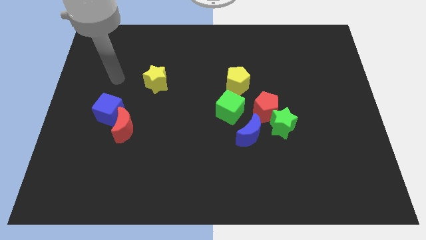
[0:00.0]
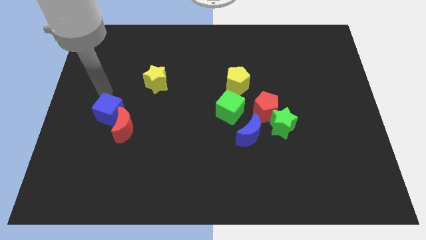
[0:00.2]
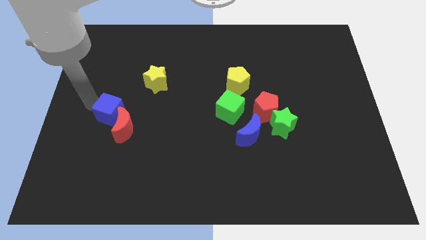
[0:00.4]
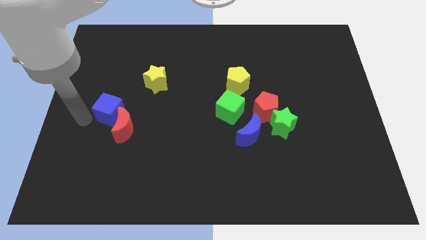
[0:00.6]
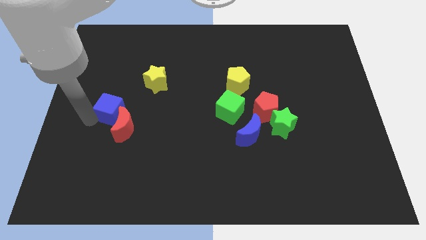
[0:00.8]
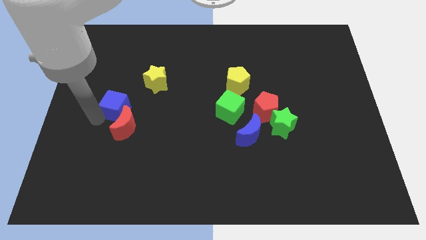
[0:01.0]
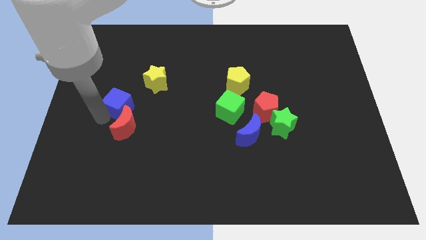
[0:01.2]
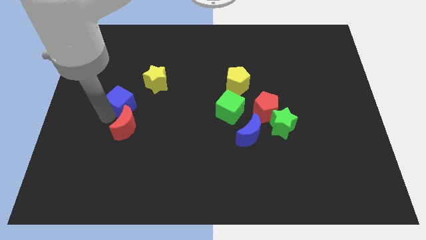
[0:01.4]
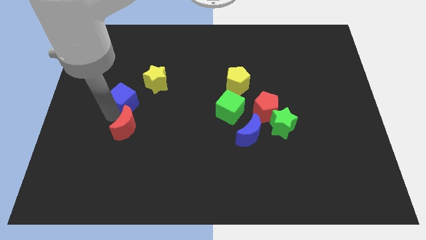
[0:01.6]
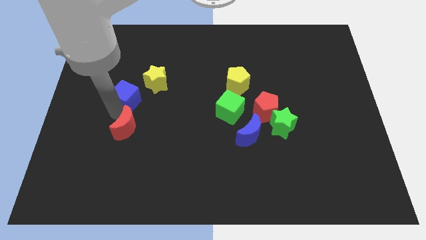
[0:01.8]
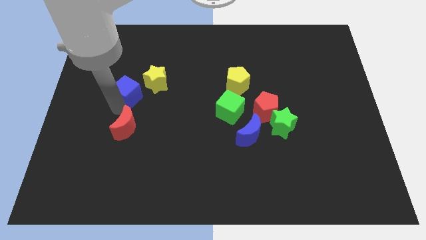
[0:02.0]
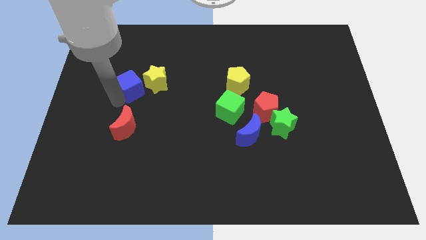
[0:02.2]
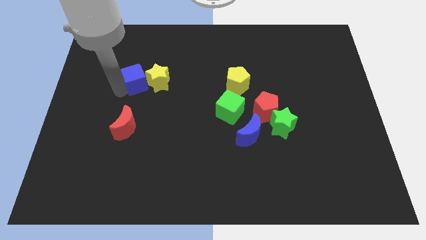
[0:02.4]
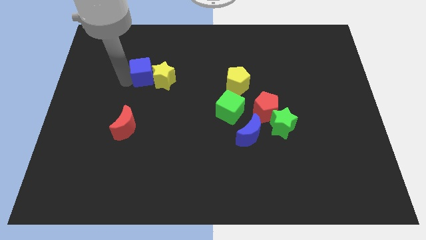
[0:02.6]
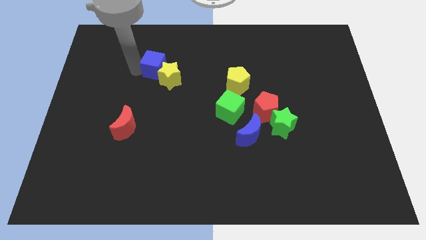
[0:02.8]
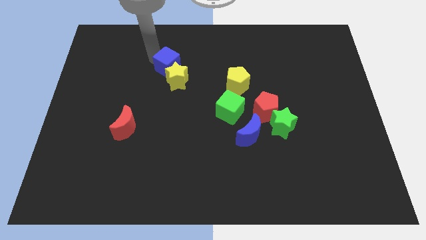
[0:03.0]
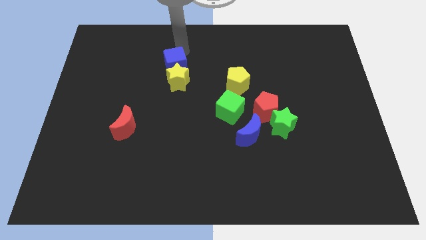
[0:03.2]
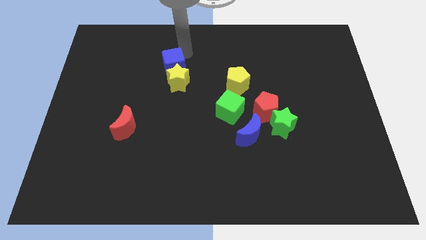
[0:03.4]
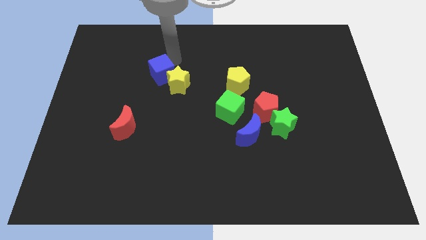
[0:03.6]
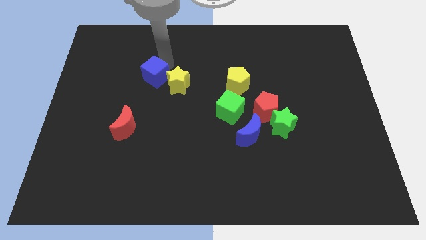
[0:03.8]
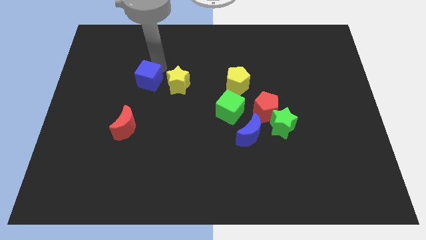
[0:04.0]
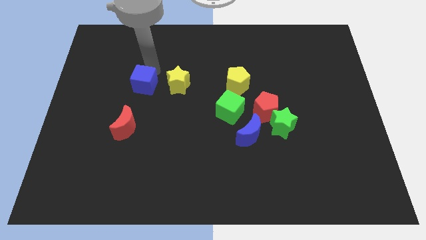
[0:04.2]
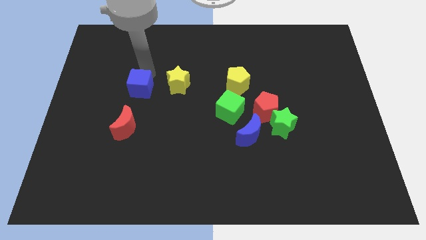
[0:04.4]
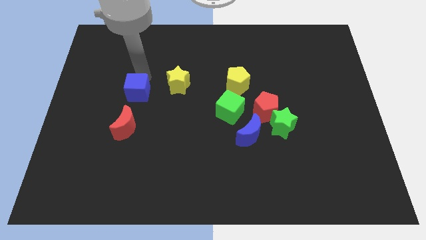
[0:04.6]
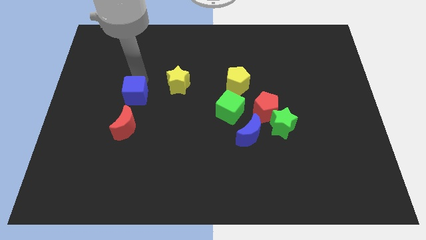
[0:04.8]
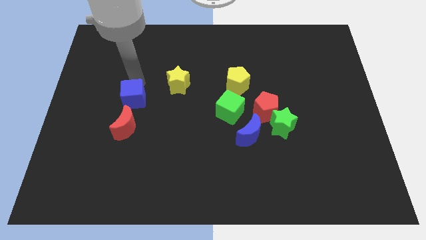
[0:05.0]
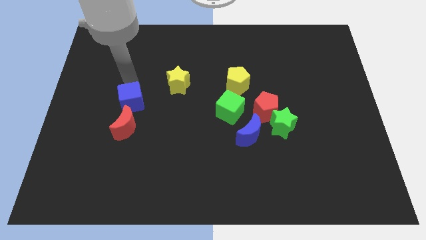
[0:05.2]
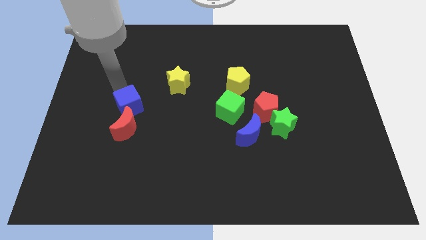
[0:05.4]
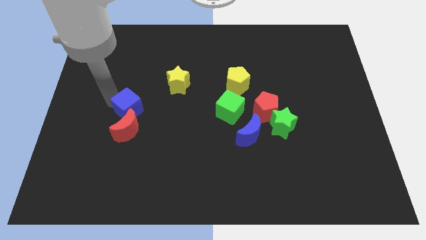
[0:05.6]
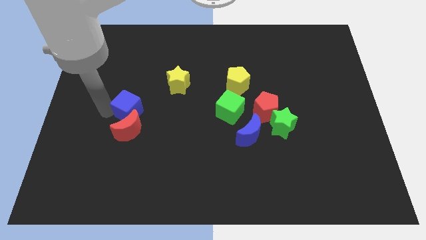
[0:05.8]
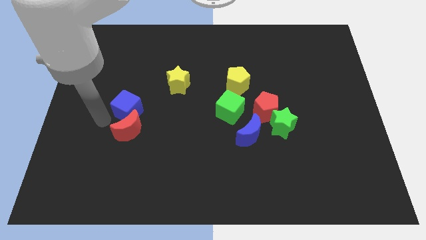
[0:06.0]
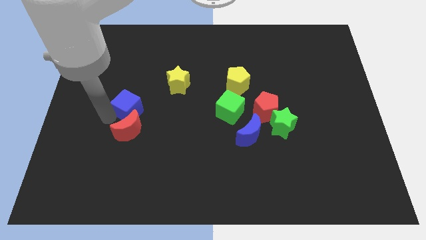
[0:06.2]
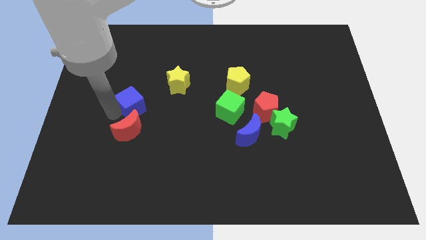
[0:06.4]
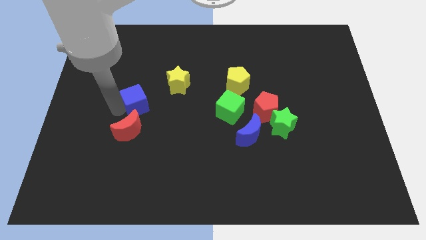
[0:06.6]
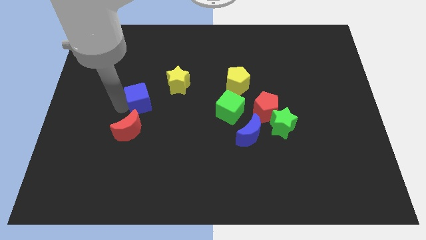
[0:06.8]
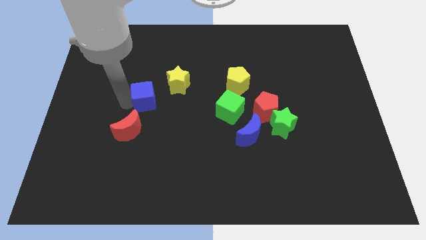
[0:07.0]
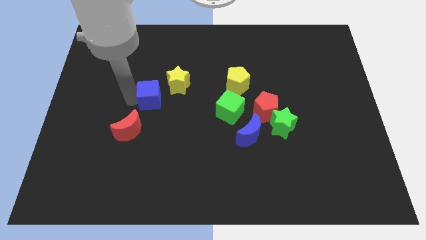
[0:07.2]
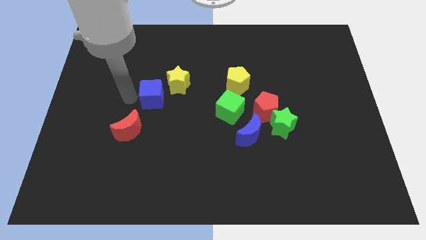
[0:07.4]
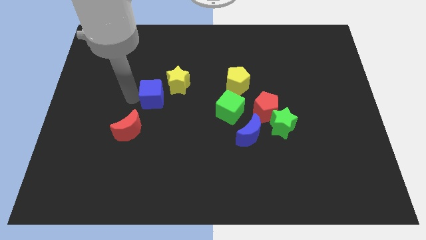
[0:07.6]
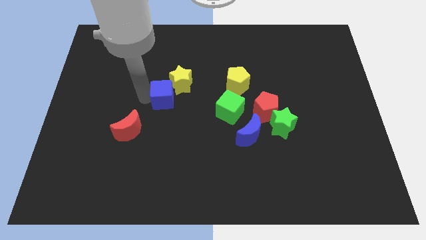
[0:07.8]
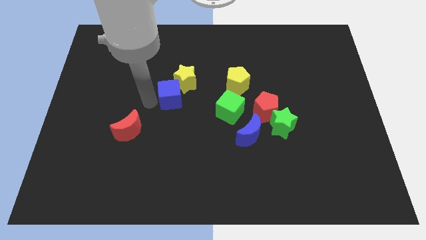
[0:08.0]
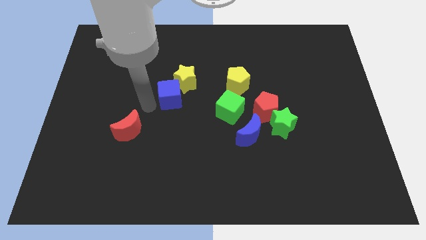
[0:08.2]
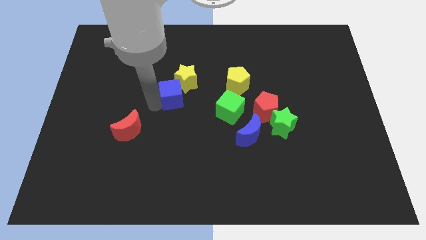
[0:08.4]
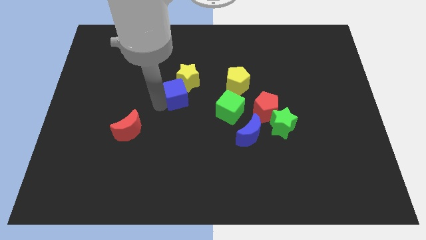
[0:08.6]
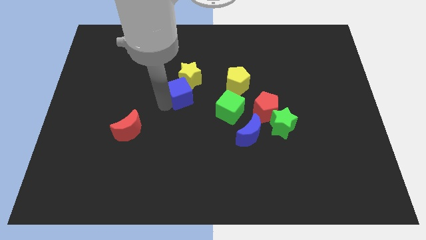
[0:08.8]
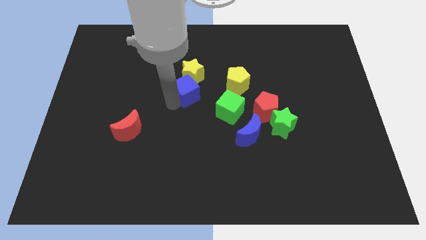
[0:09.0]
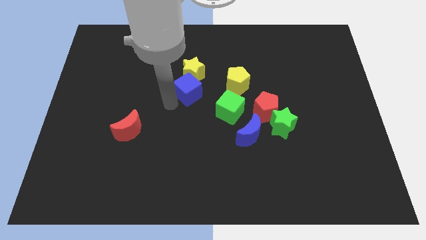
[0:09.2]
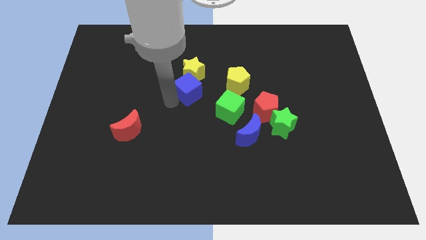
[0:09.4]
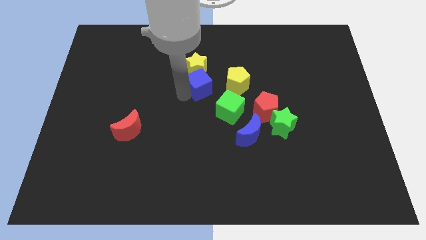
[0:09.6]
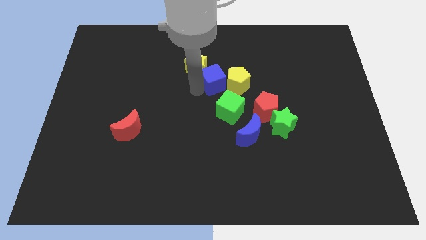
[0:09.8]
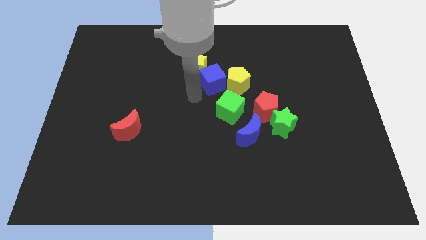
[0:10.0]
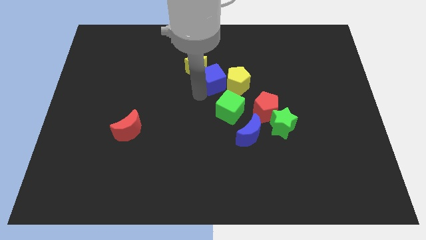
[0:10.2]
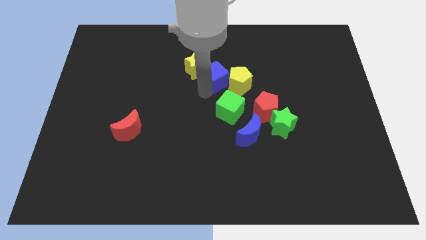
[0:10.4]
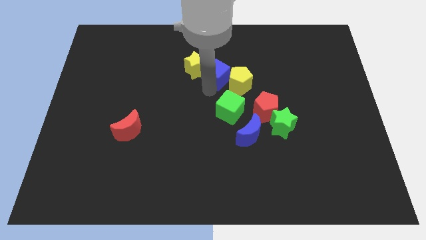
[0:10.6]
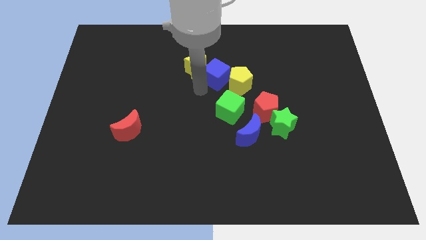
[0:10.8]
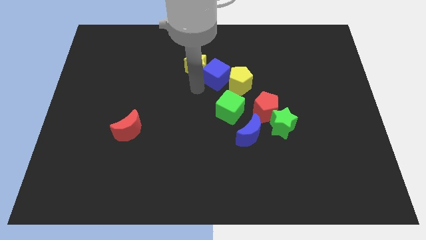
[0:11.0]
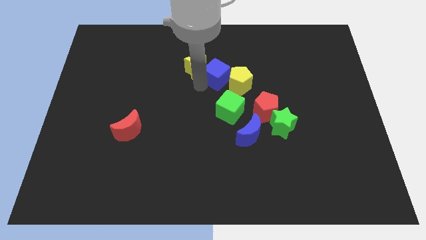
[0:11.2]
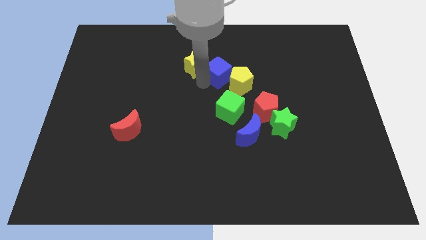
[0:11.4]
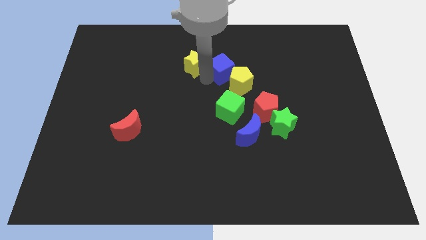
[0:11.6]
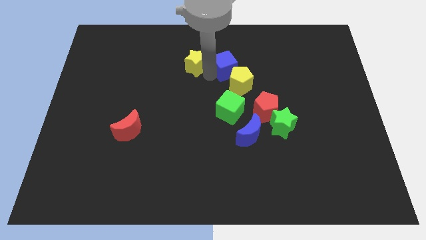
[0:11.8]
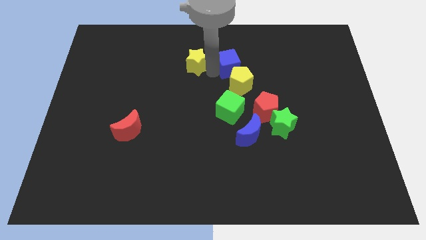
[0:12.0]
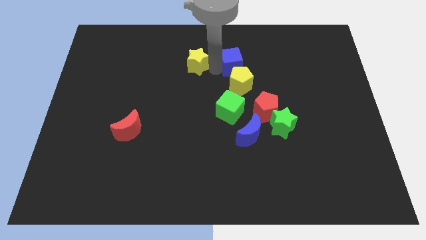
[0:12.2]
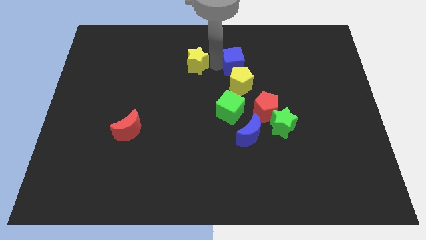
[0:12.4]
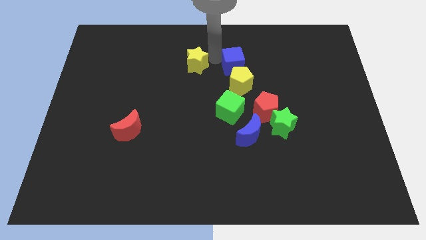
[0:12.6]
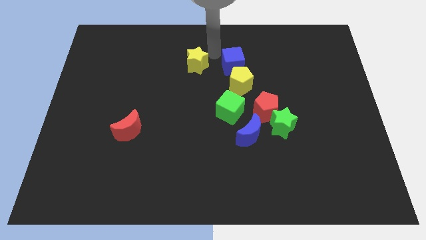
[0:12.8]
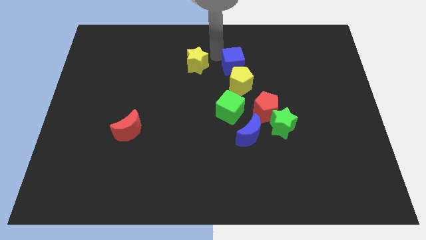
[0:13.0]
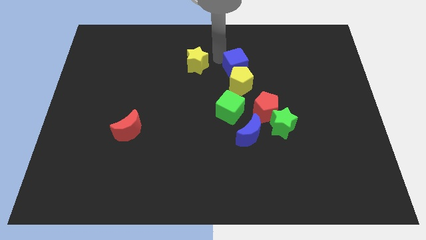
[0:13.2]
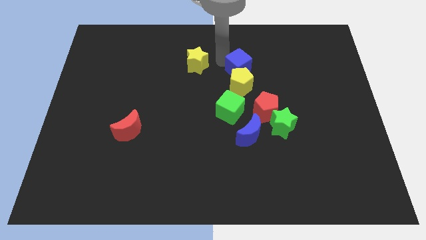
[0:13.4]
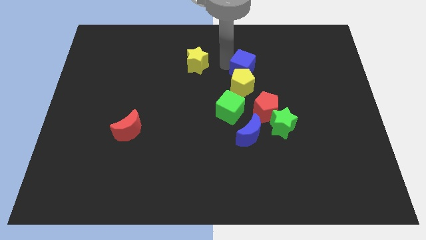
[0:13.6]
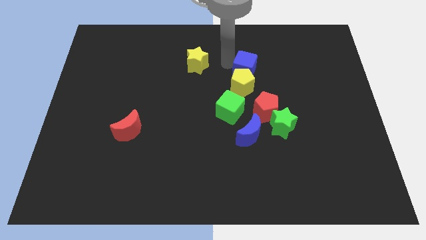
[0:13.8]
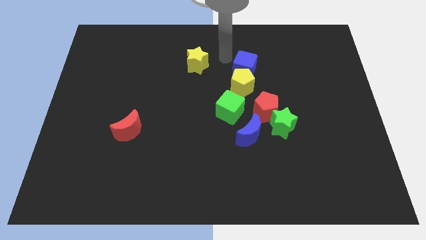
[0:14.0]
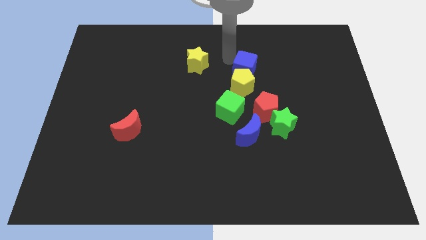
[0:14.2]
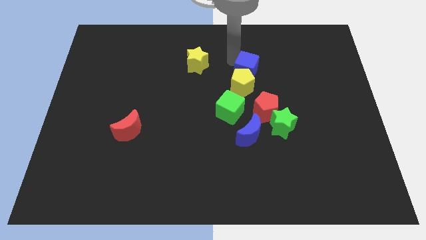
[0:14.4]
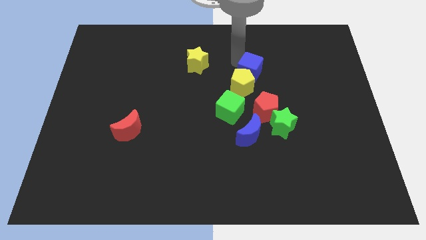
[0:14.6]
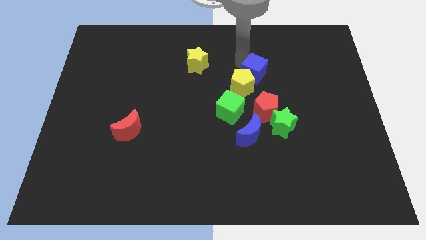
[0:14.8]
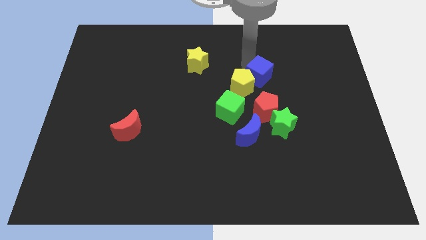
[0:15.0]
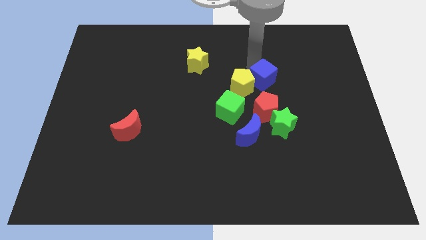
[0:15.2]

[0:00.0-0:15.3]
slide the blue cube above the green star
